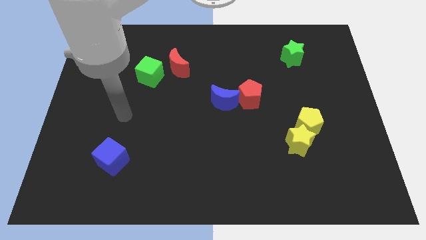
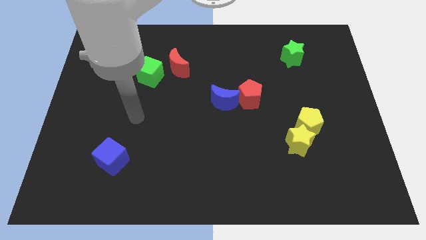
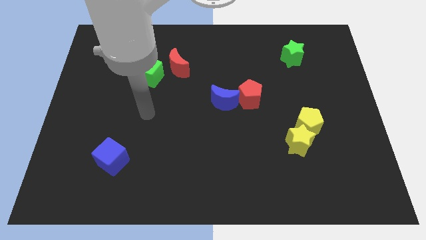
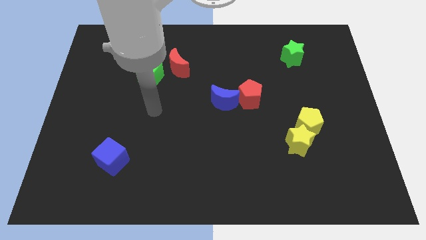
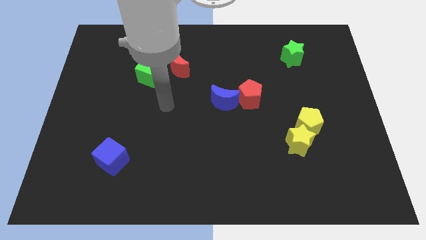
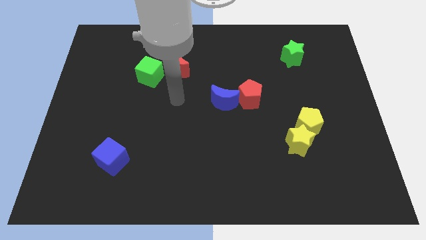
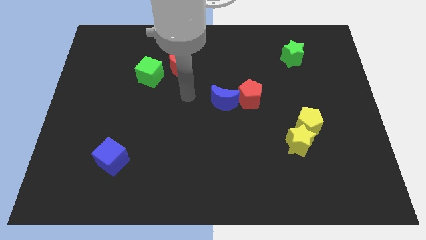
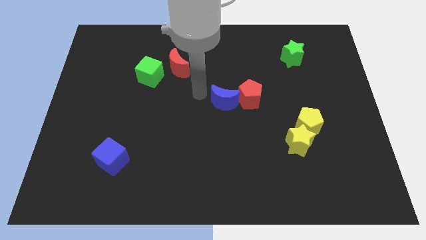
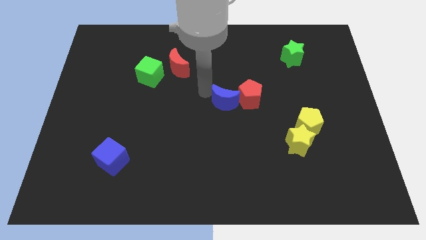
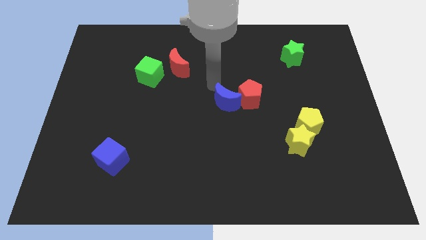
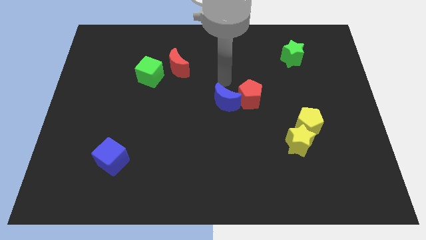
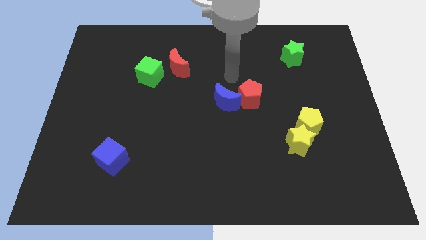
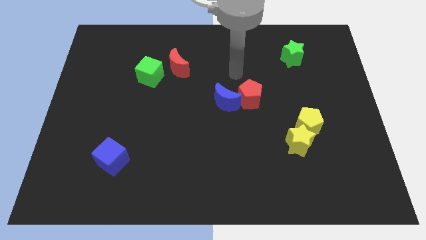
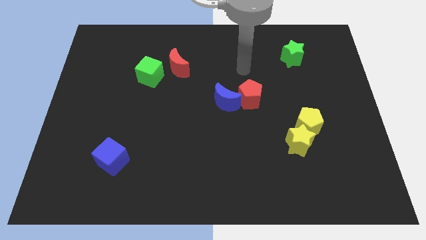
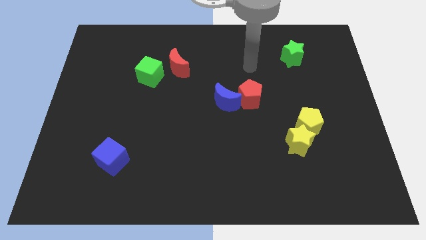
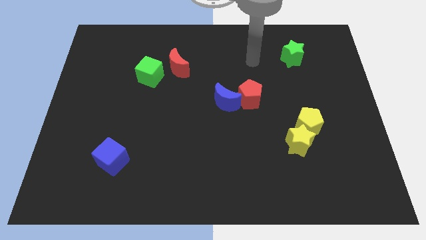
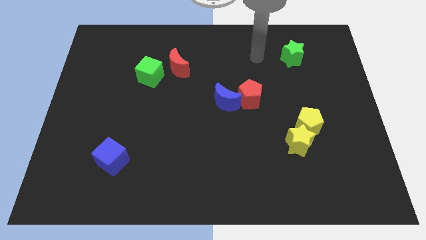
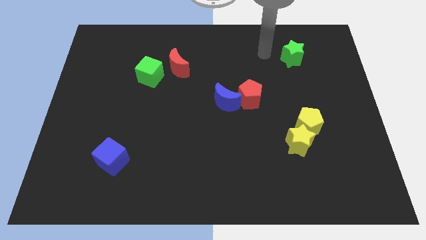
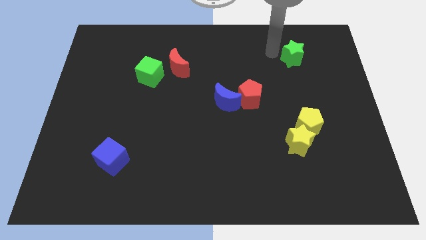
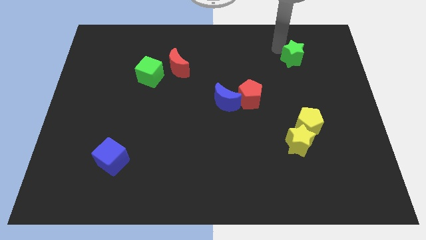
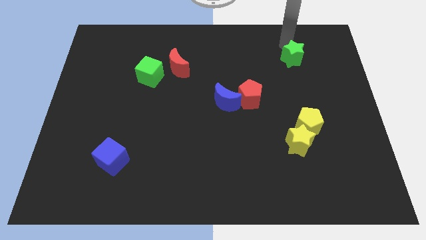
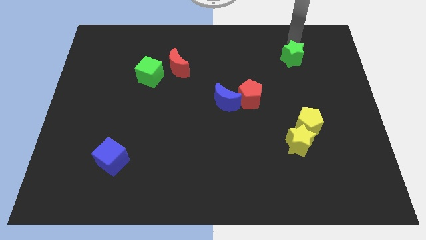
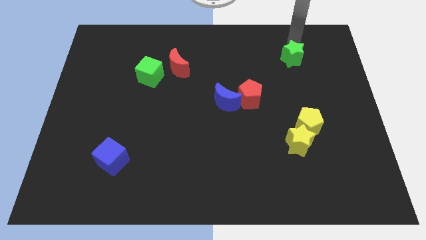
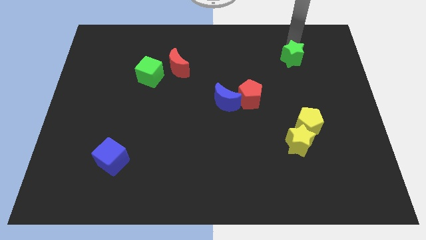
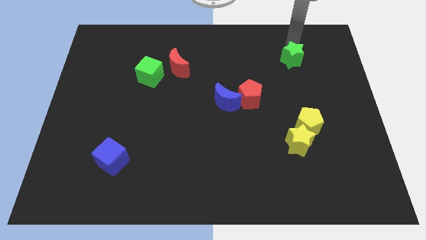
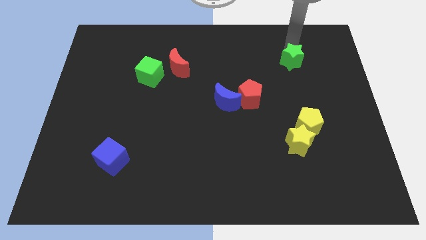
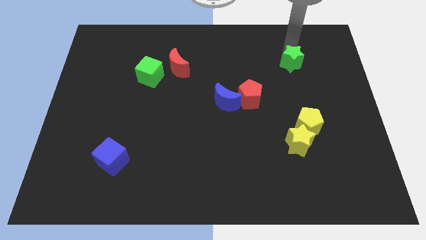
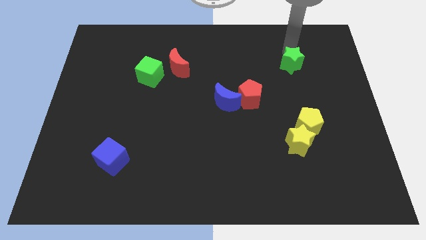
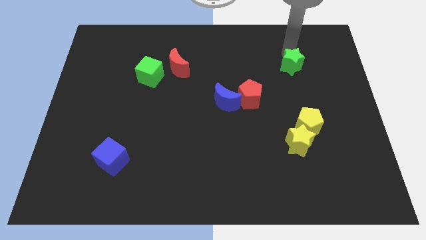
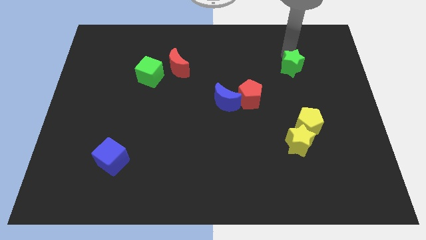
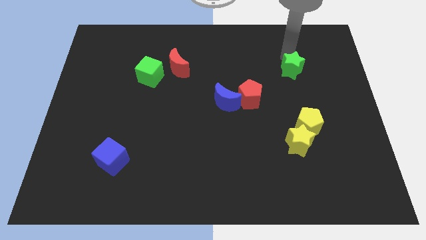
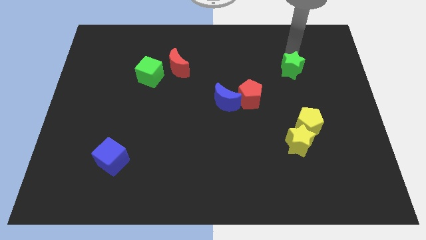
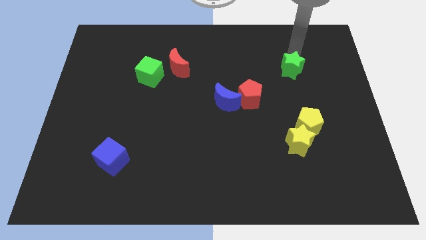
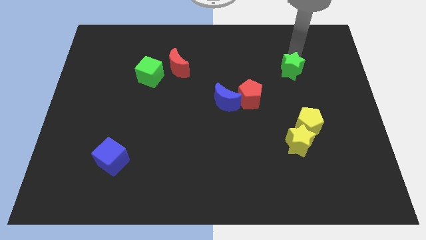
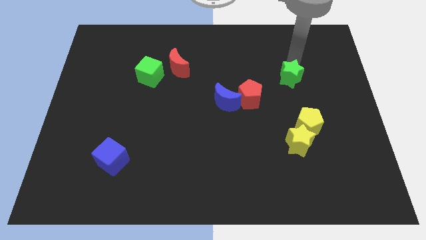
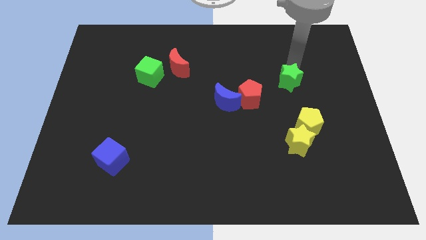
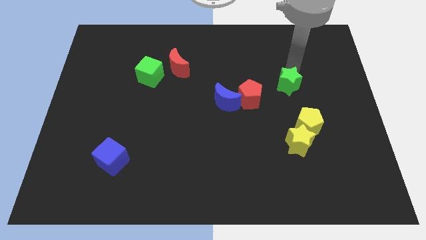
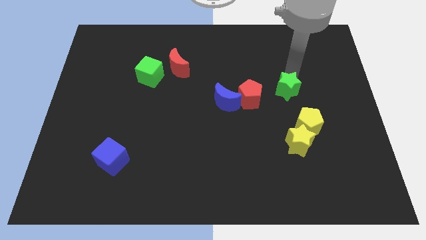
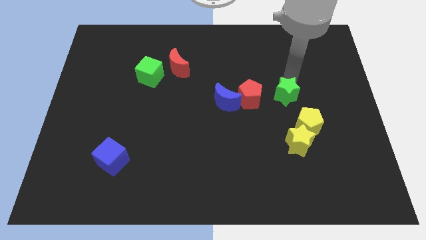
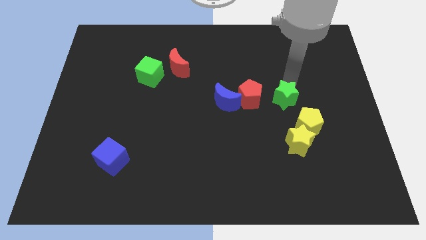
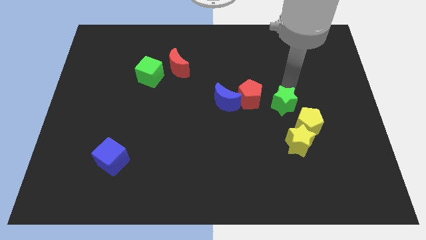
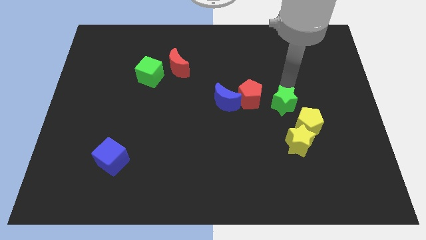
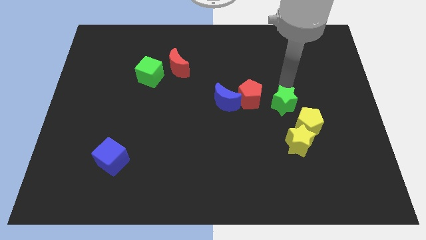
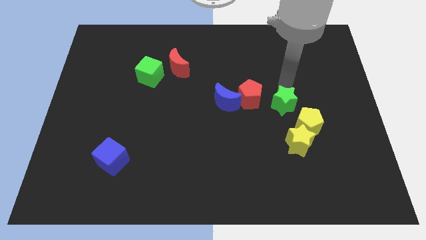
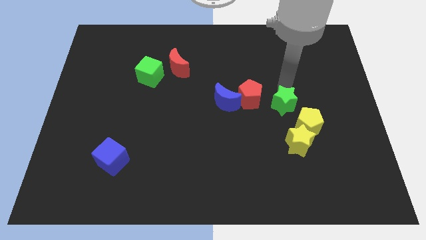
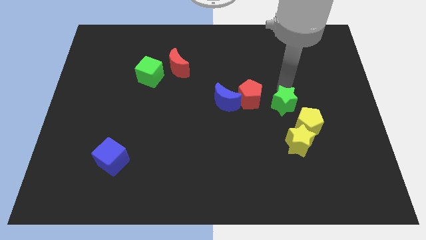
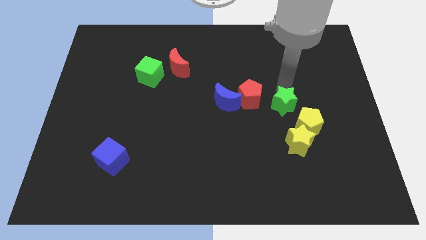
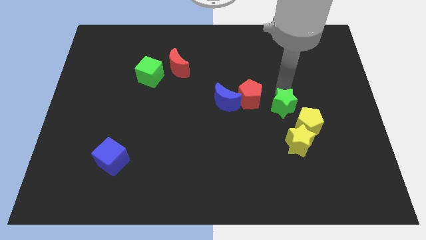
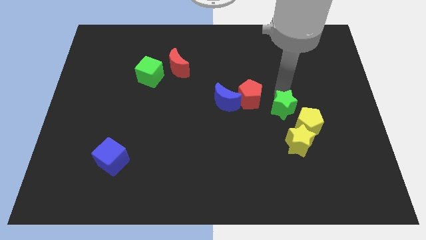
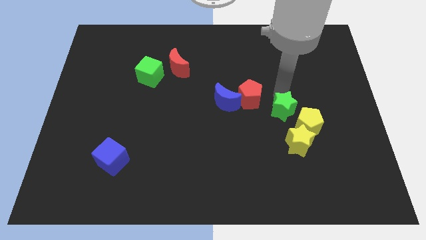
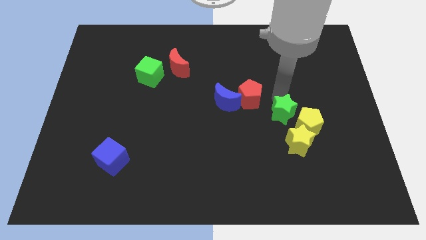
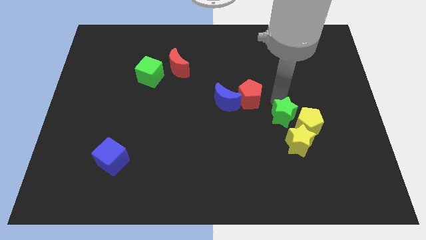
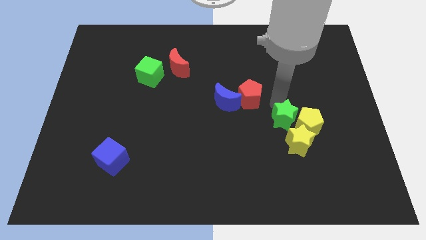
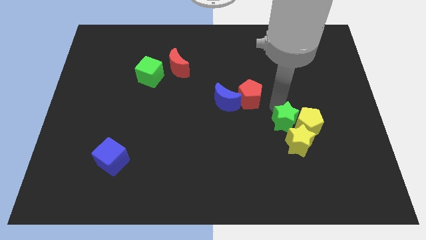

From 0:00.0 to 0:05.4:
move the green star to the yellow star
